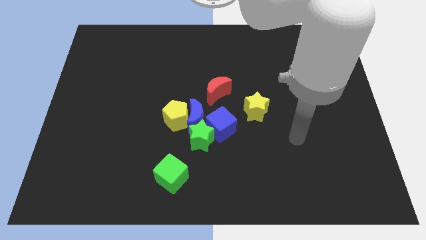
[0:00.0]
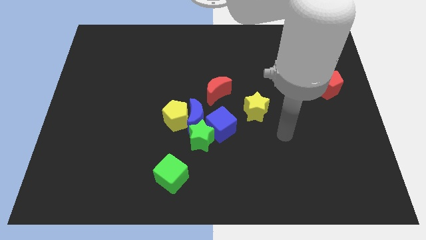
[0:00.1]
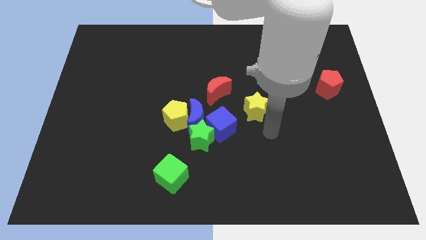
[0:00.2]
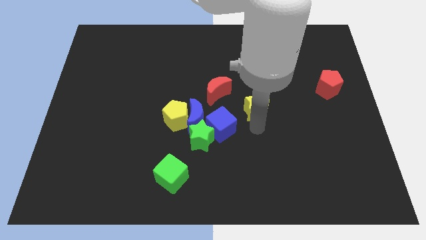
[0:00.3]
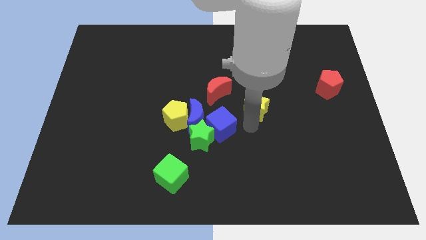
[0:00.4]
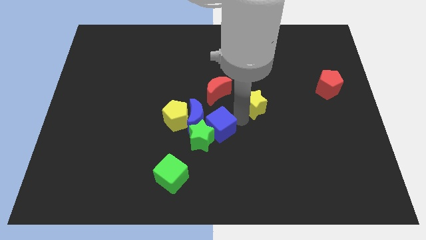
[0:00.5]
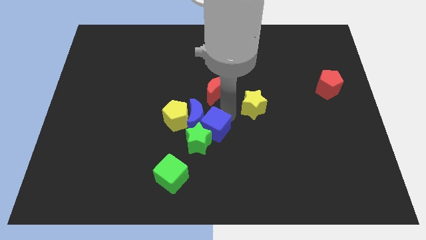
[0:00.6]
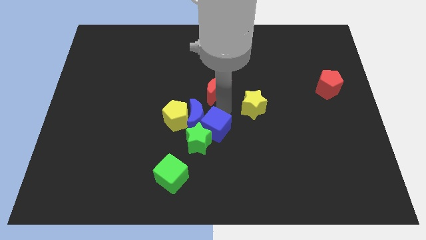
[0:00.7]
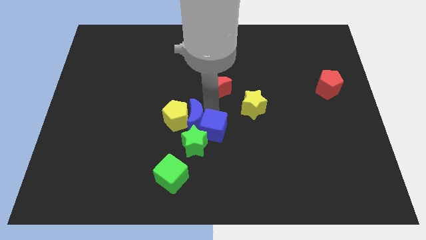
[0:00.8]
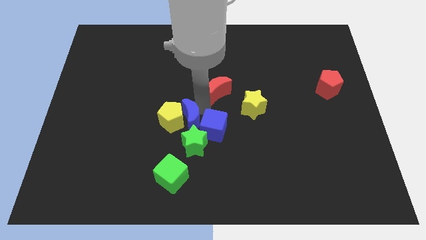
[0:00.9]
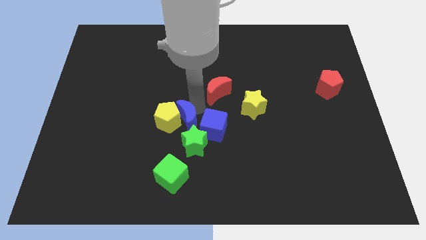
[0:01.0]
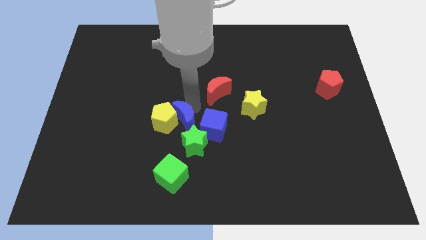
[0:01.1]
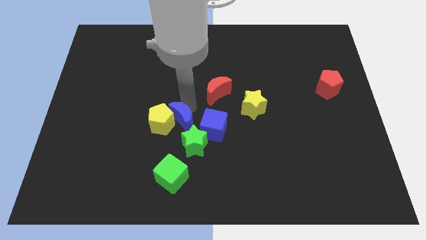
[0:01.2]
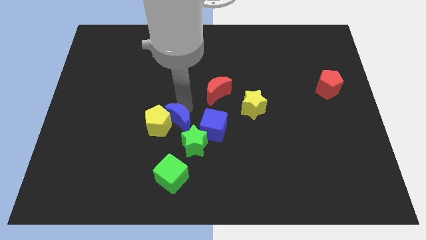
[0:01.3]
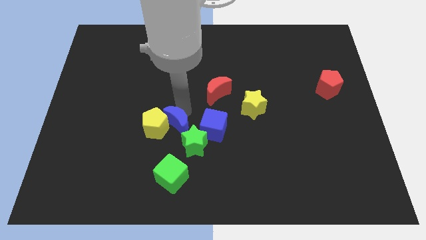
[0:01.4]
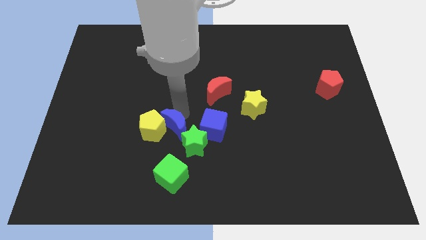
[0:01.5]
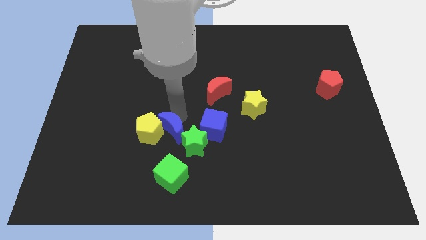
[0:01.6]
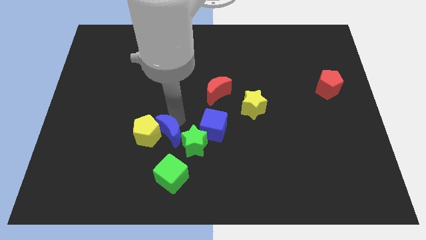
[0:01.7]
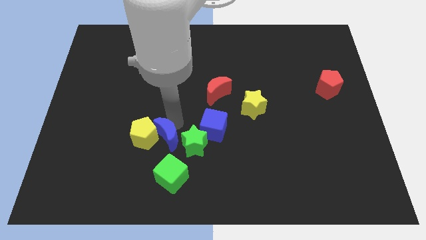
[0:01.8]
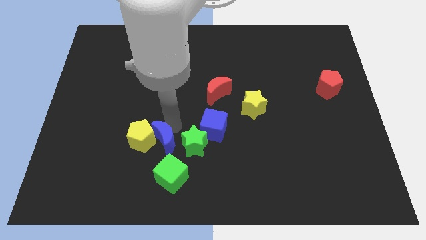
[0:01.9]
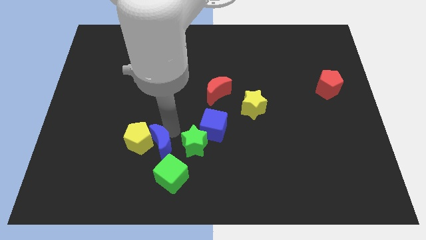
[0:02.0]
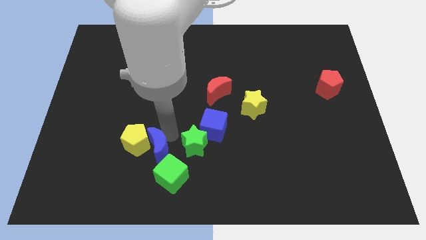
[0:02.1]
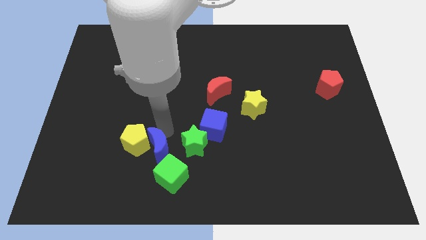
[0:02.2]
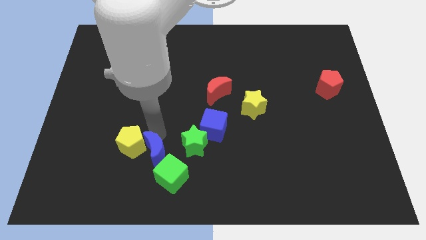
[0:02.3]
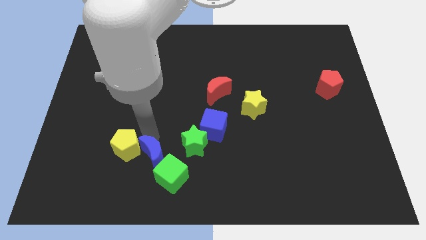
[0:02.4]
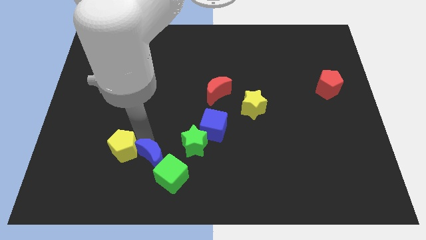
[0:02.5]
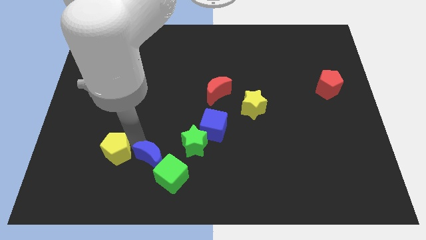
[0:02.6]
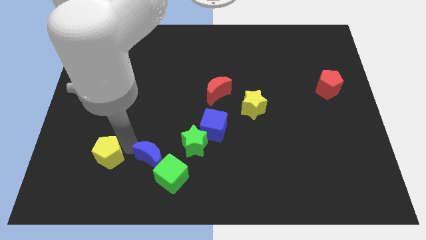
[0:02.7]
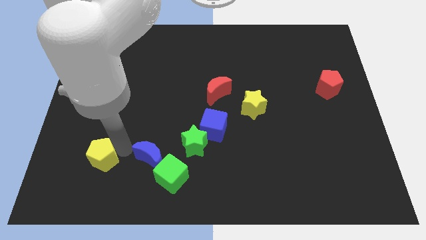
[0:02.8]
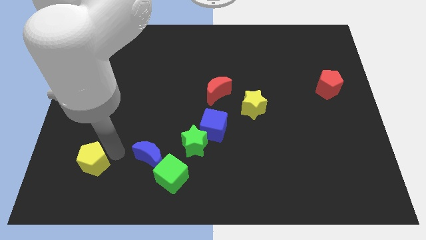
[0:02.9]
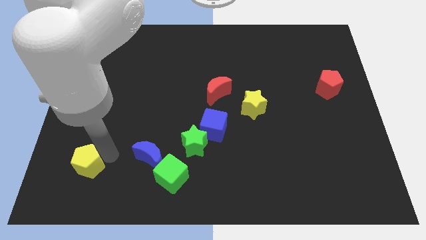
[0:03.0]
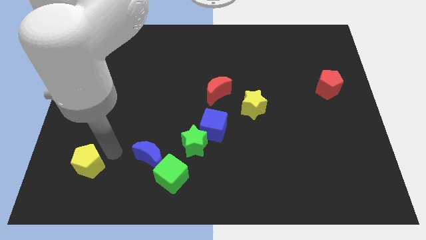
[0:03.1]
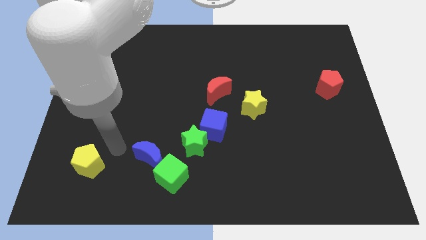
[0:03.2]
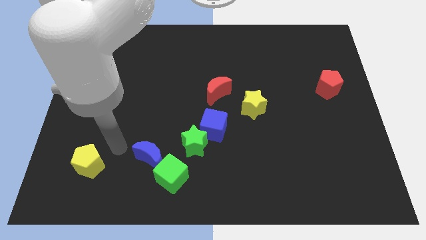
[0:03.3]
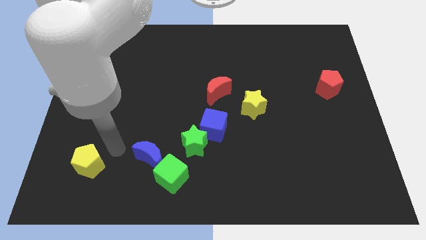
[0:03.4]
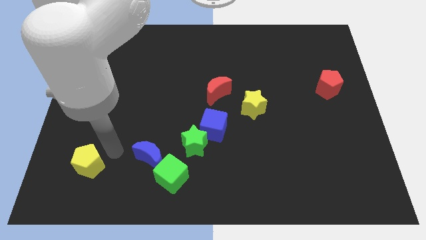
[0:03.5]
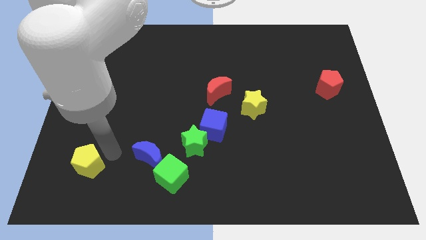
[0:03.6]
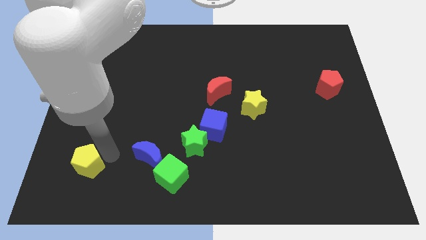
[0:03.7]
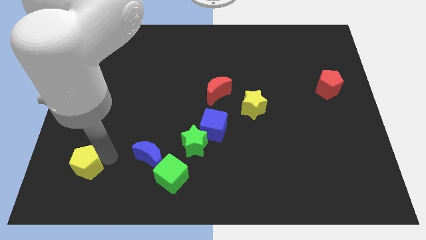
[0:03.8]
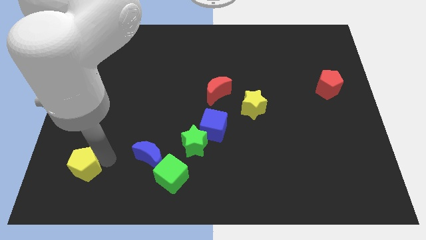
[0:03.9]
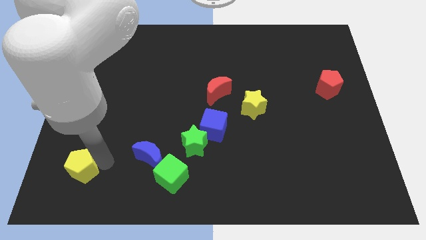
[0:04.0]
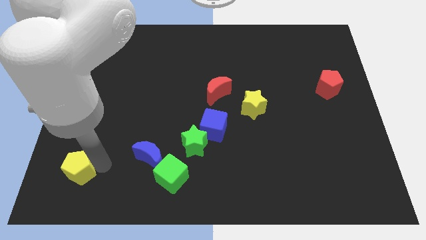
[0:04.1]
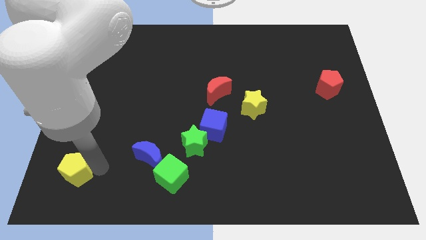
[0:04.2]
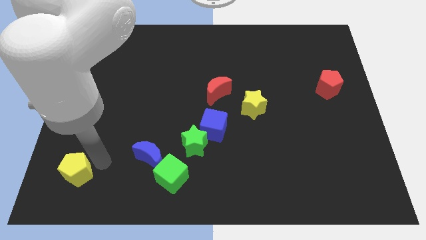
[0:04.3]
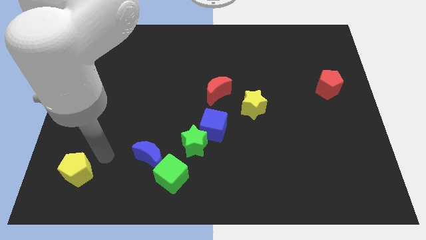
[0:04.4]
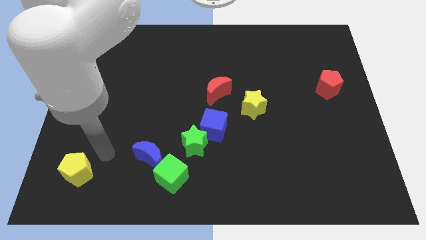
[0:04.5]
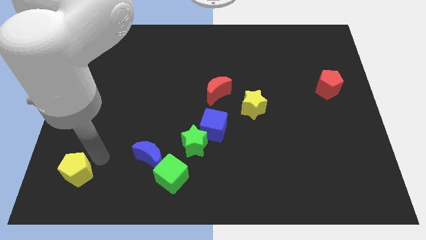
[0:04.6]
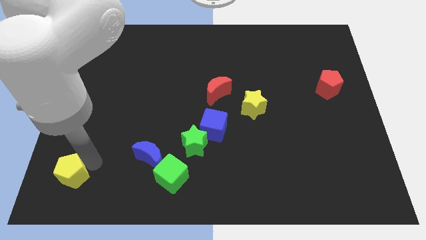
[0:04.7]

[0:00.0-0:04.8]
put the yellow pentagon to the bottom left of the board

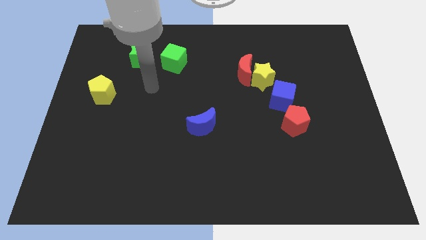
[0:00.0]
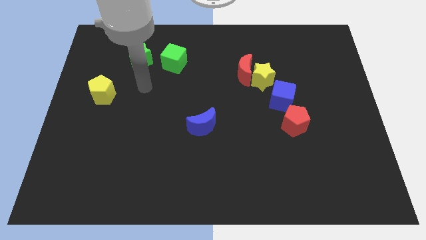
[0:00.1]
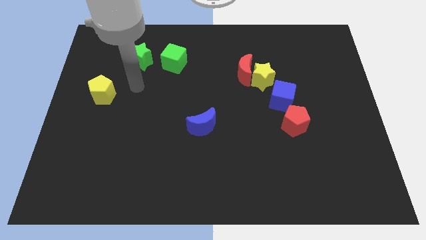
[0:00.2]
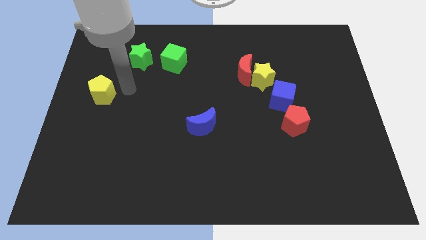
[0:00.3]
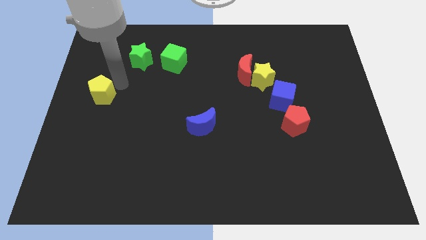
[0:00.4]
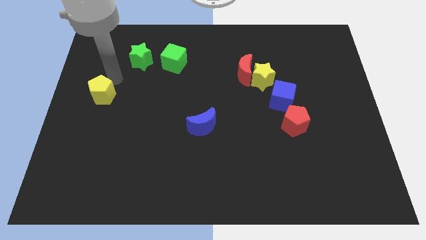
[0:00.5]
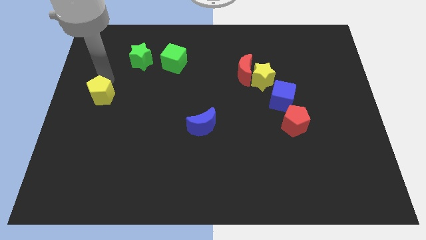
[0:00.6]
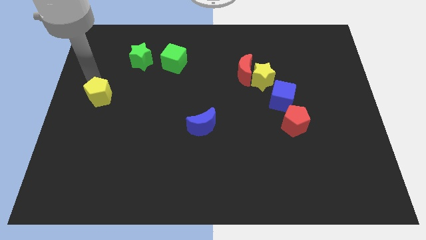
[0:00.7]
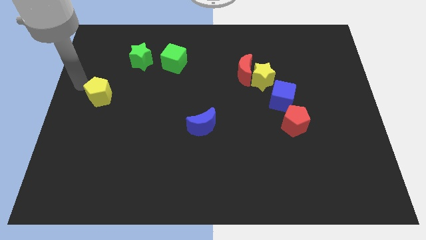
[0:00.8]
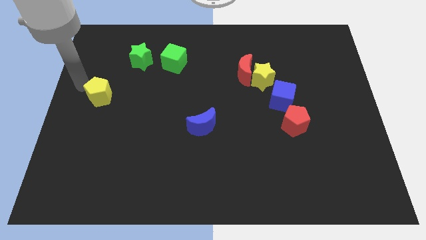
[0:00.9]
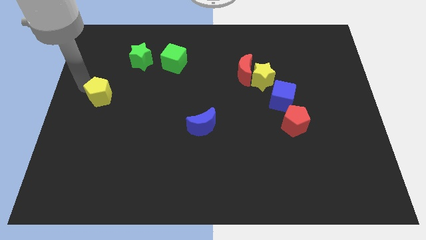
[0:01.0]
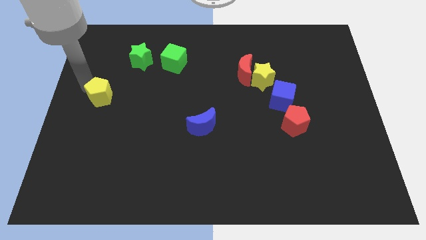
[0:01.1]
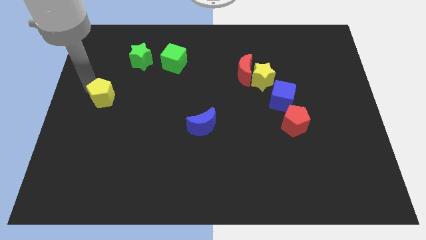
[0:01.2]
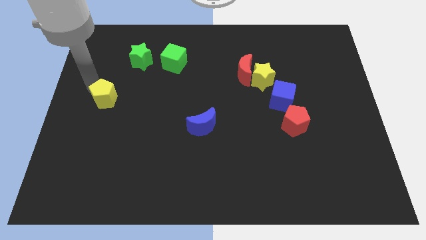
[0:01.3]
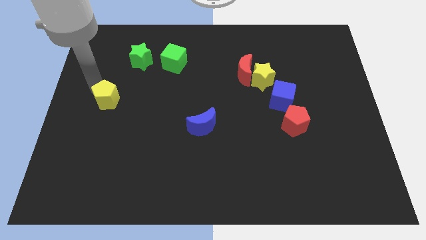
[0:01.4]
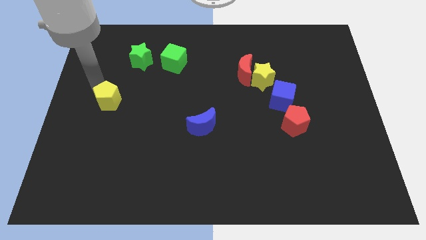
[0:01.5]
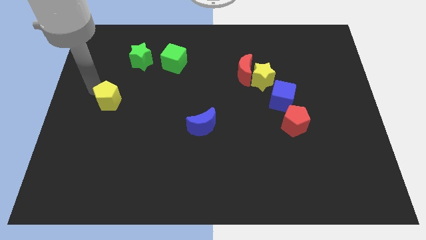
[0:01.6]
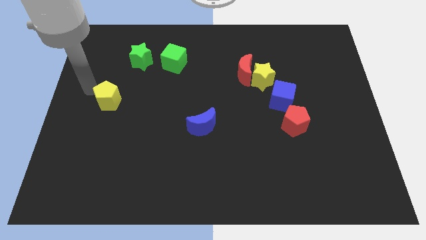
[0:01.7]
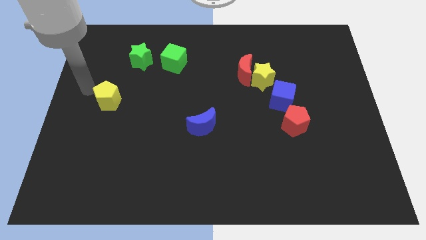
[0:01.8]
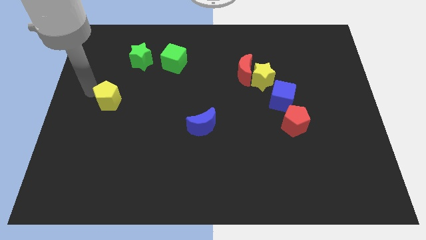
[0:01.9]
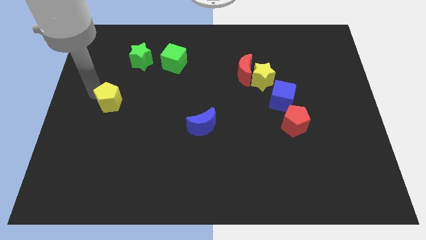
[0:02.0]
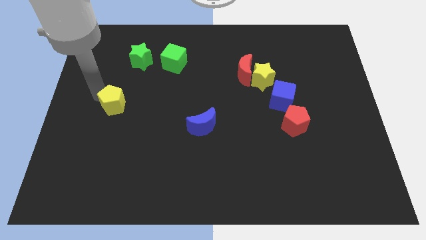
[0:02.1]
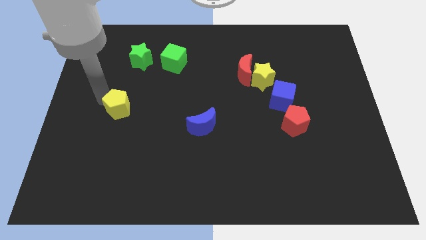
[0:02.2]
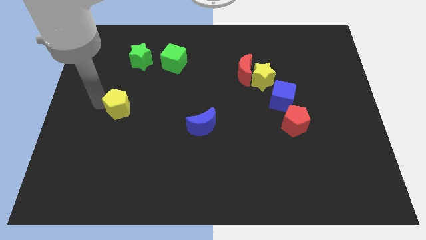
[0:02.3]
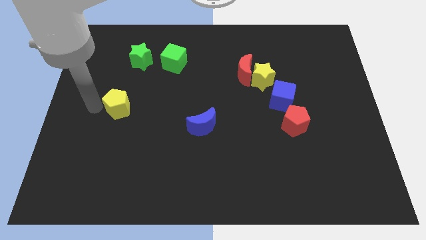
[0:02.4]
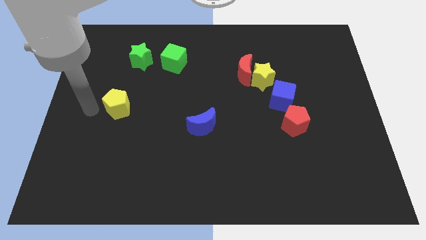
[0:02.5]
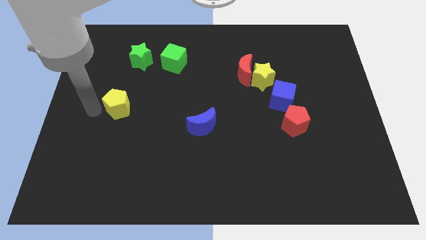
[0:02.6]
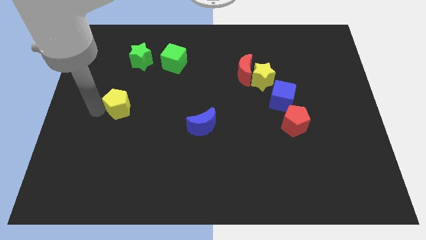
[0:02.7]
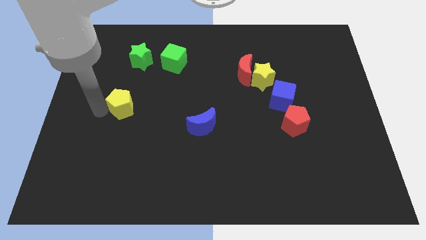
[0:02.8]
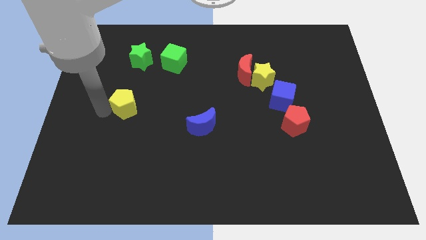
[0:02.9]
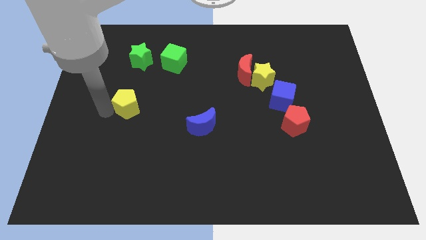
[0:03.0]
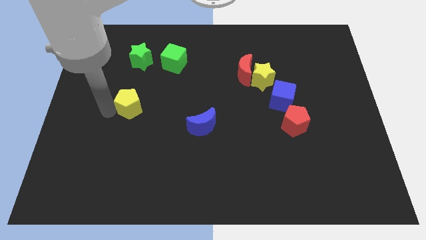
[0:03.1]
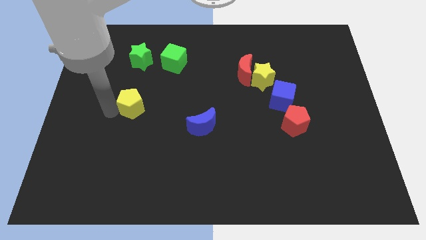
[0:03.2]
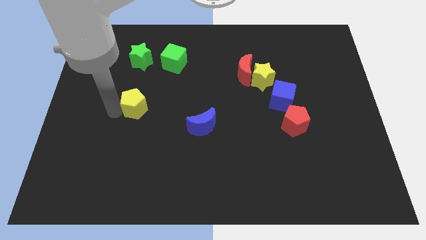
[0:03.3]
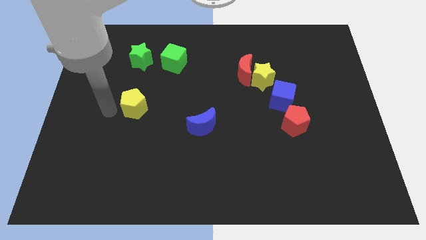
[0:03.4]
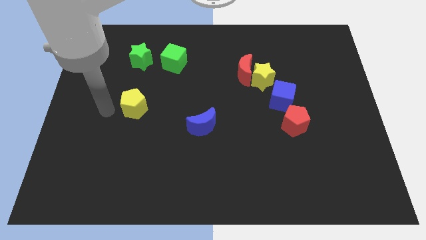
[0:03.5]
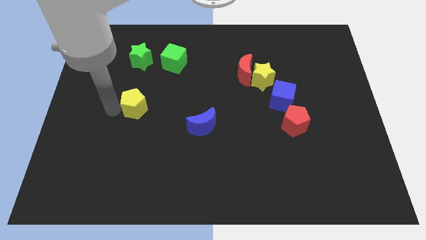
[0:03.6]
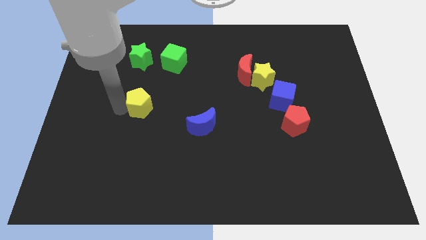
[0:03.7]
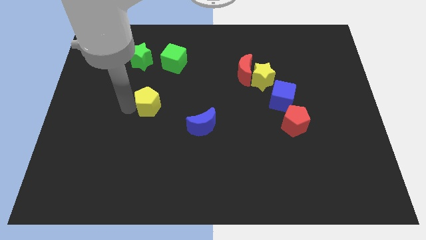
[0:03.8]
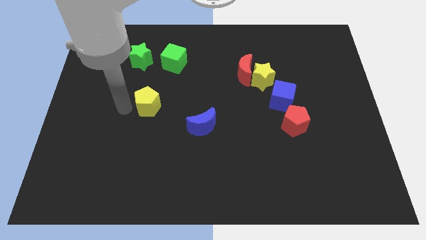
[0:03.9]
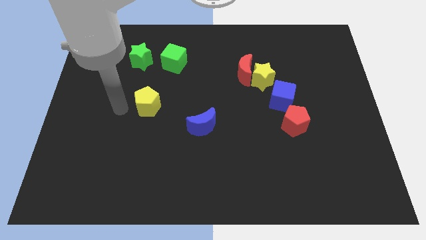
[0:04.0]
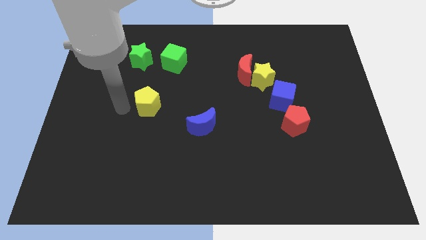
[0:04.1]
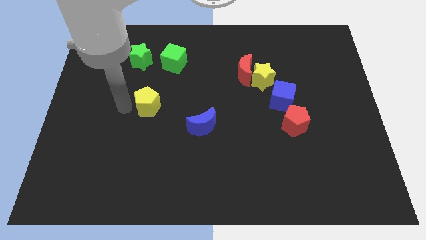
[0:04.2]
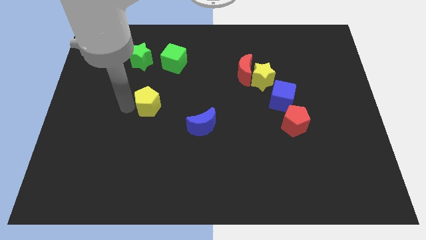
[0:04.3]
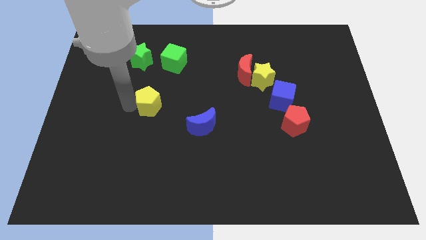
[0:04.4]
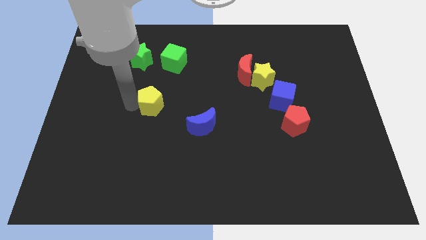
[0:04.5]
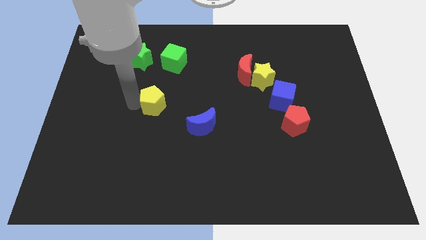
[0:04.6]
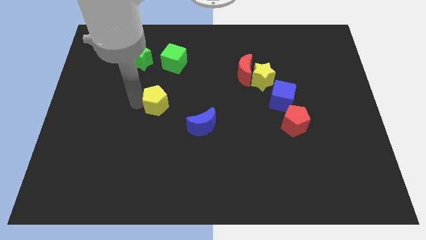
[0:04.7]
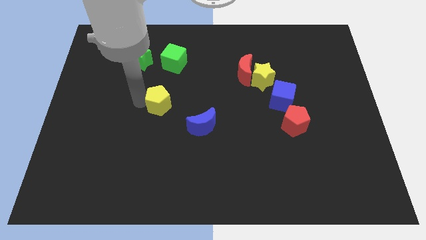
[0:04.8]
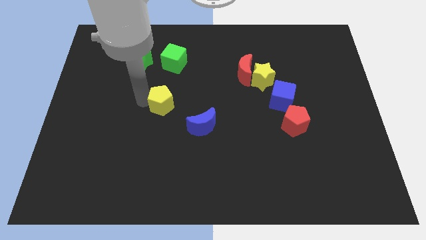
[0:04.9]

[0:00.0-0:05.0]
slide the yellow pentagon to the middle of the board
